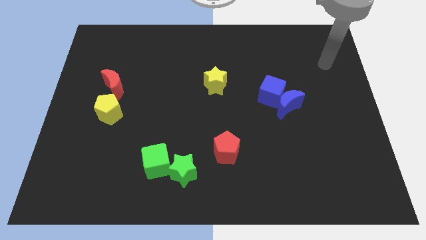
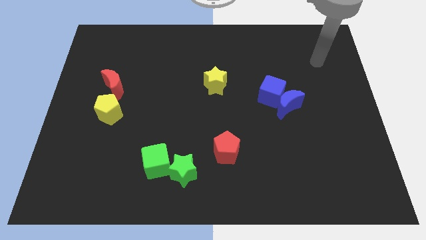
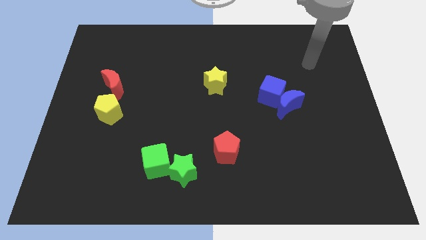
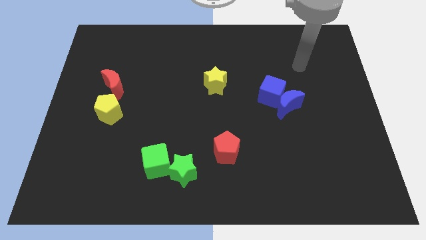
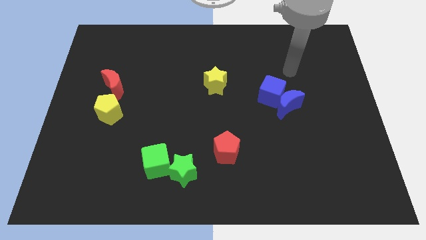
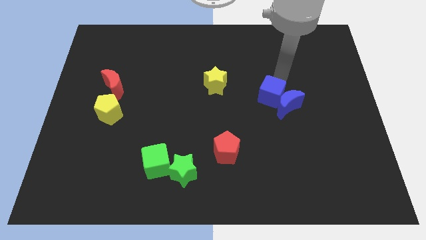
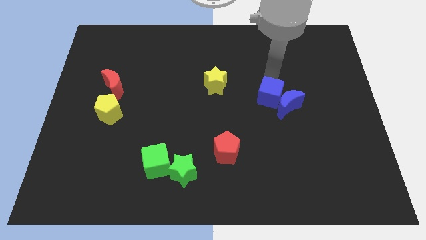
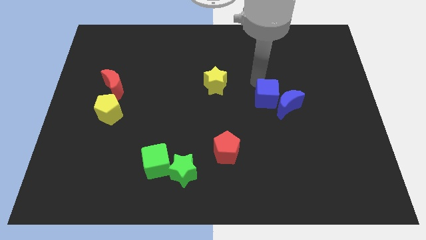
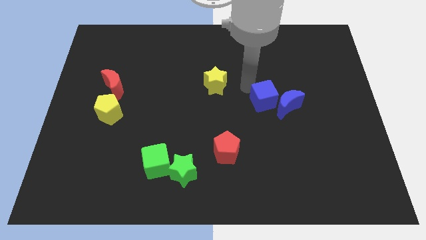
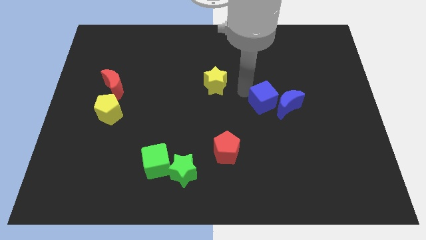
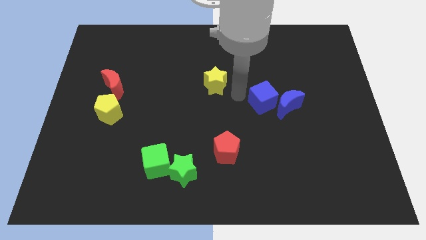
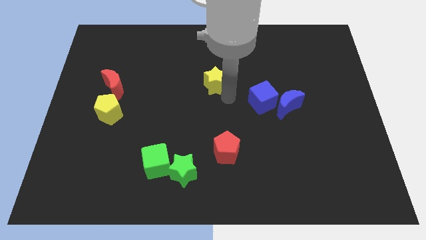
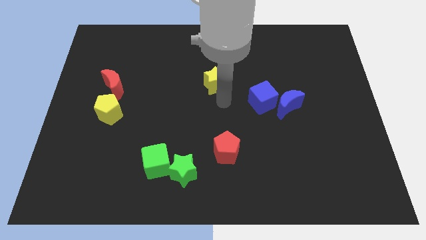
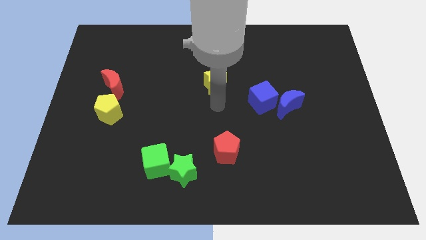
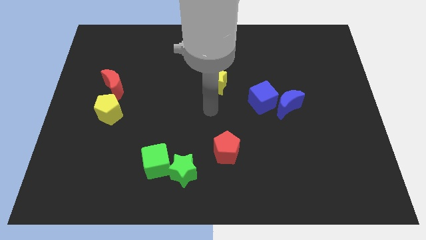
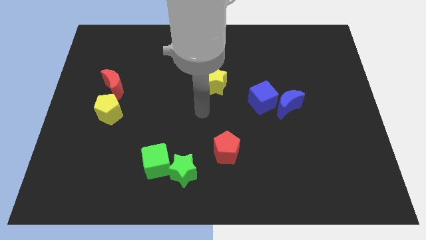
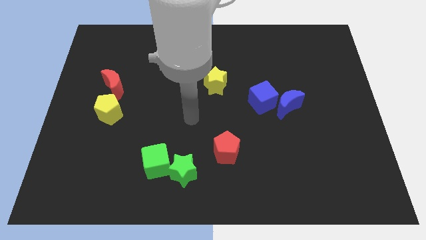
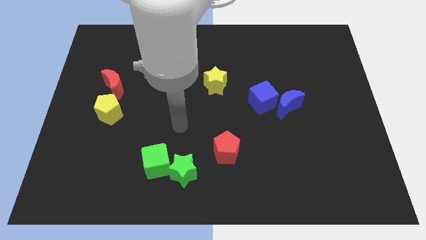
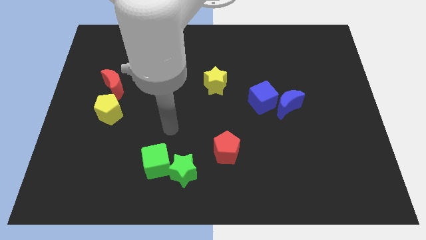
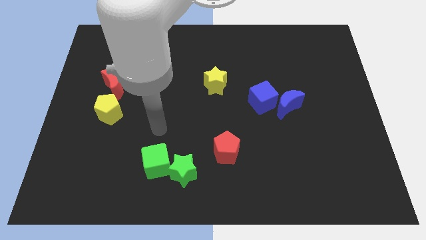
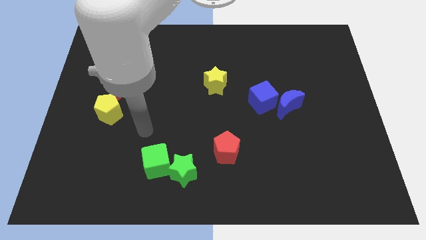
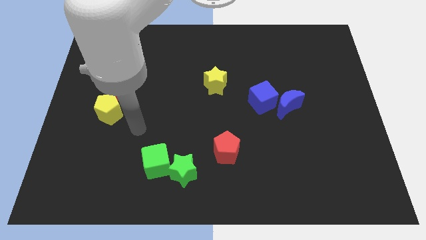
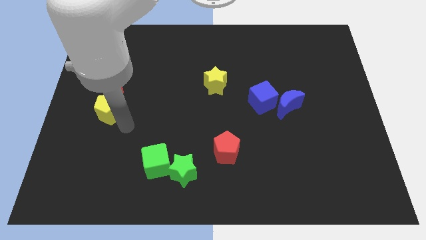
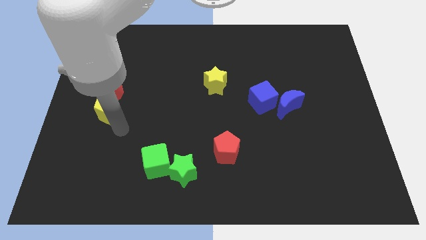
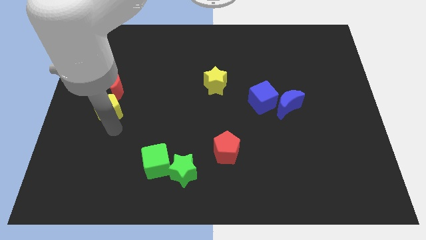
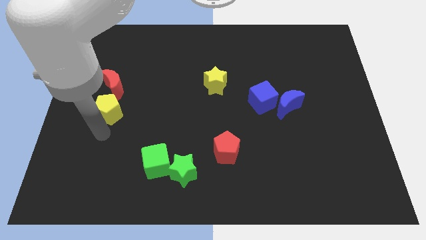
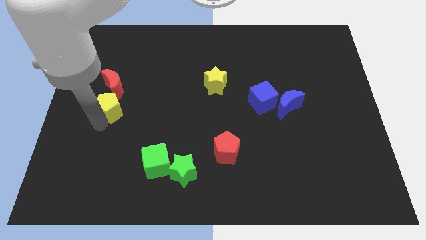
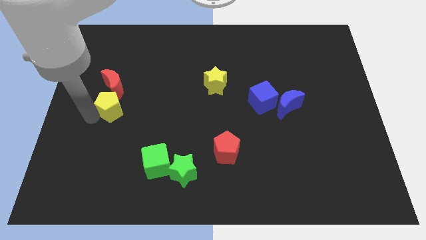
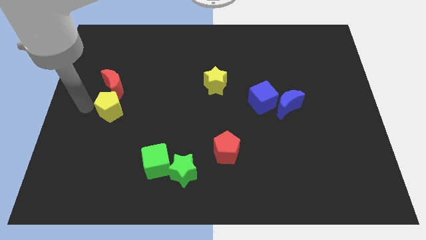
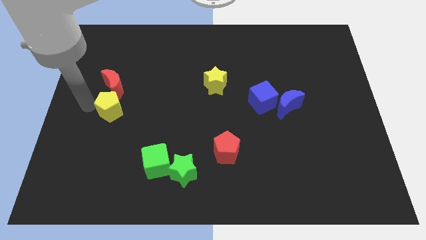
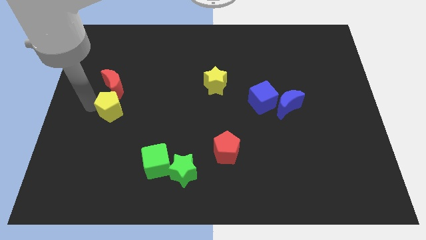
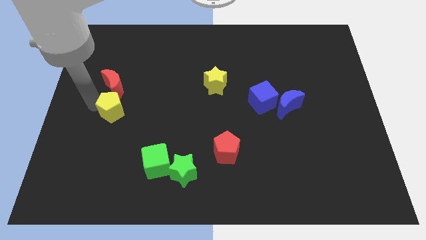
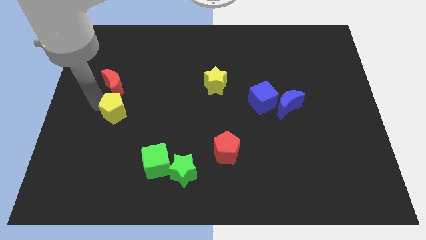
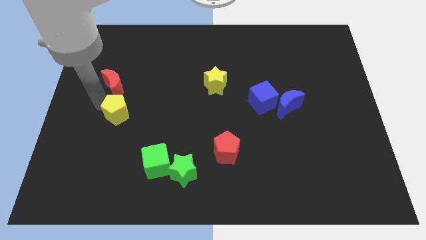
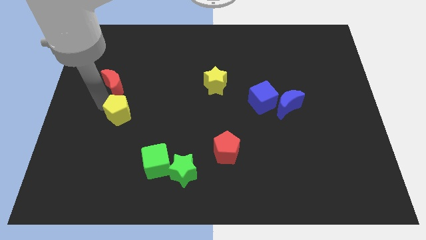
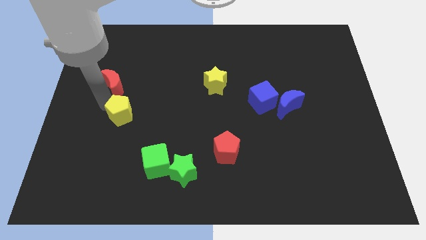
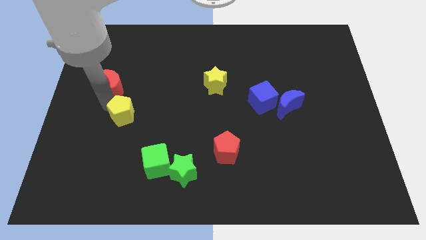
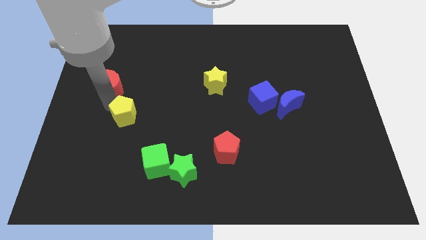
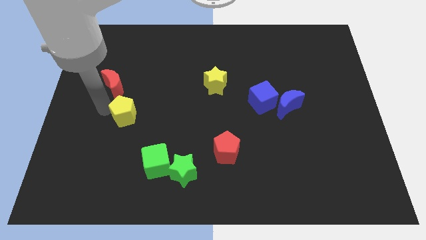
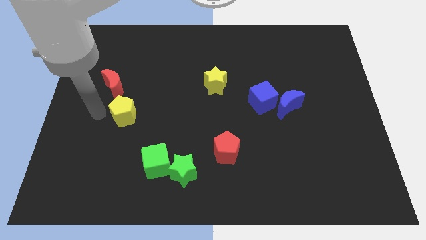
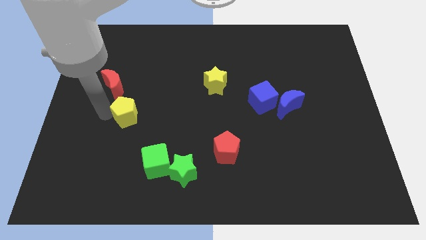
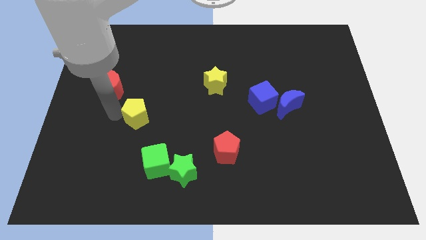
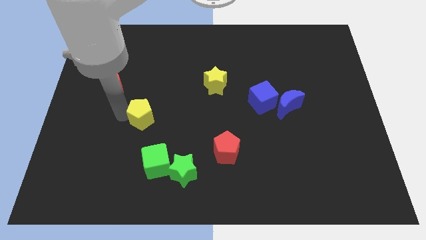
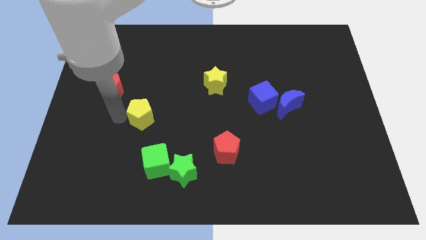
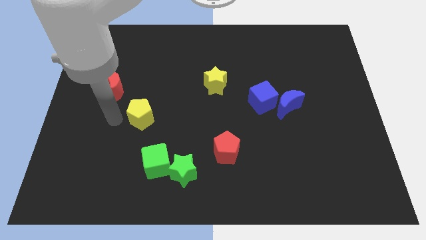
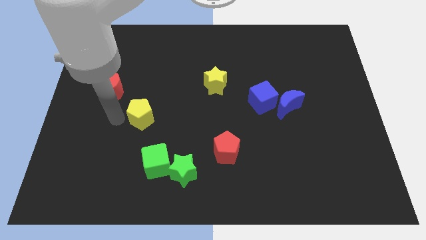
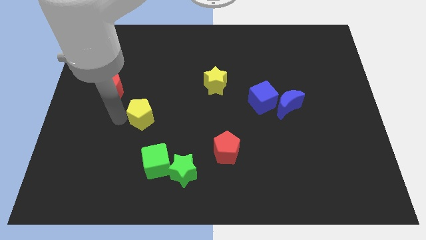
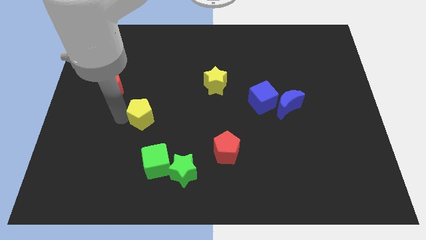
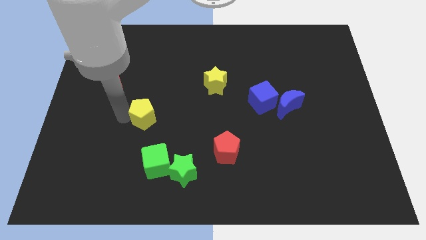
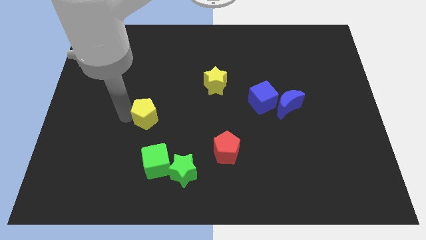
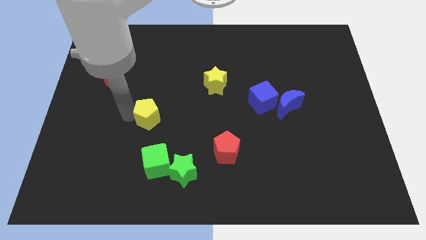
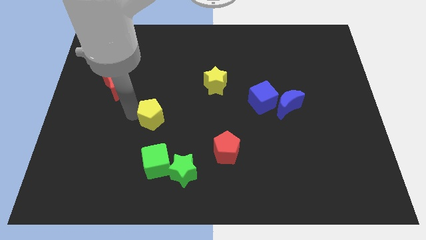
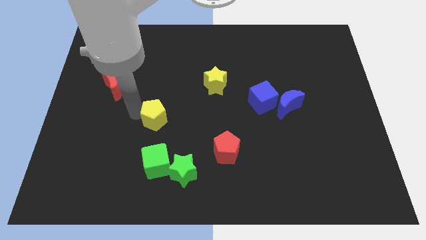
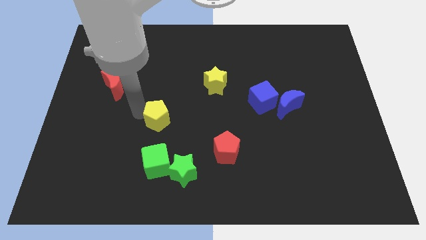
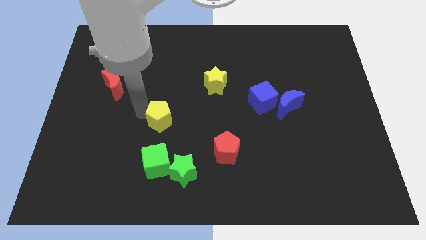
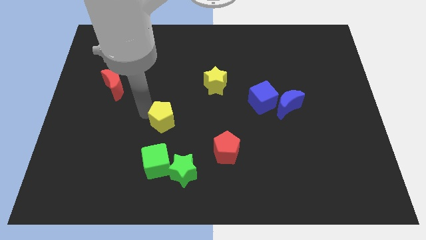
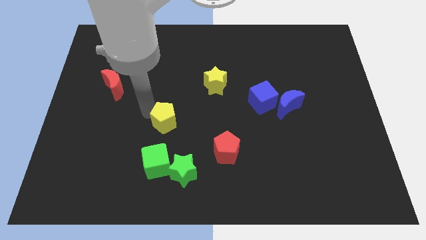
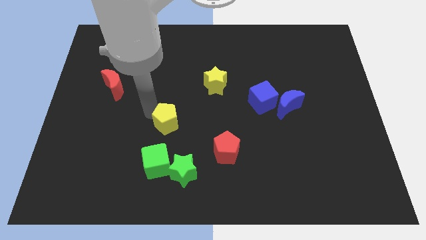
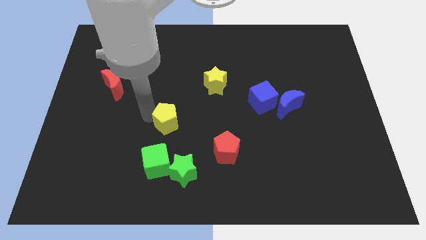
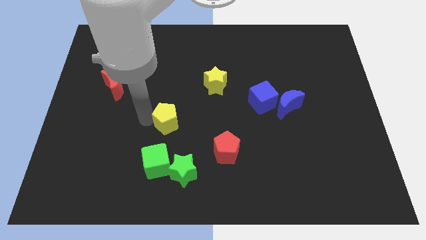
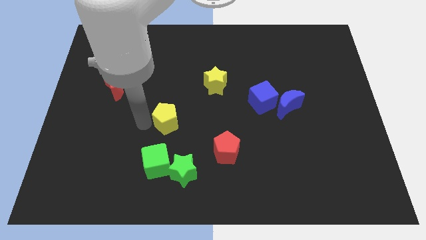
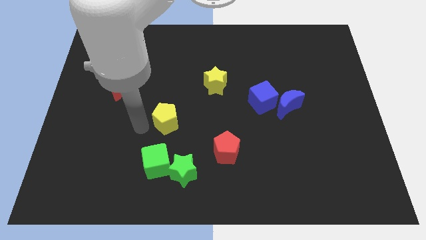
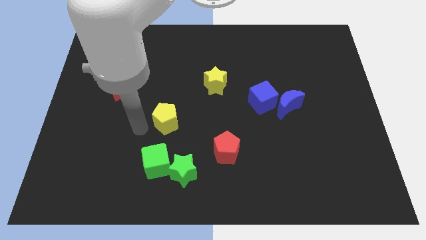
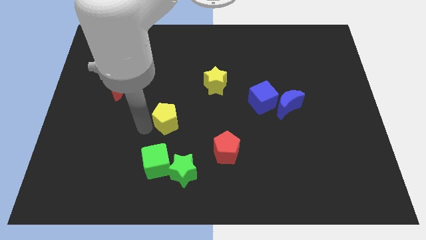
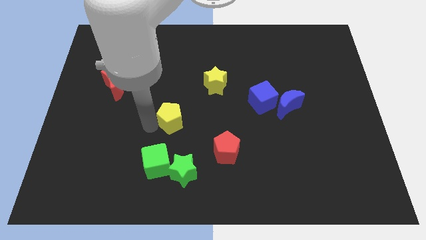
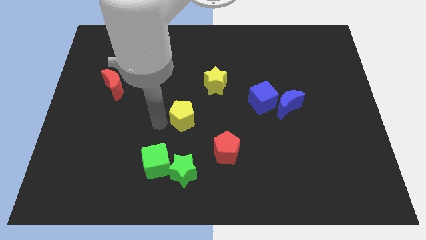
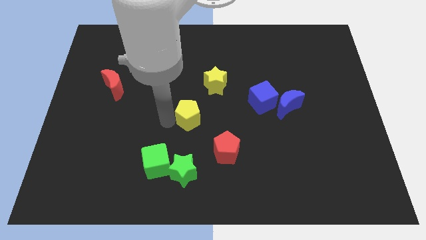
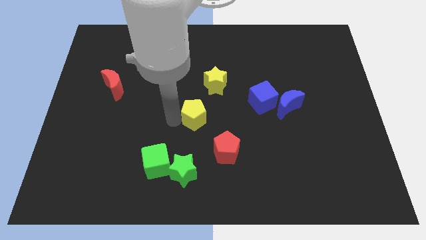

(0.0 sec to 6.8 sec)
move the yellow pentagon right

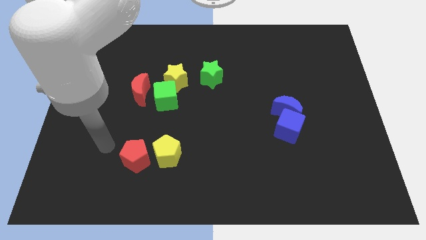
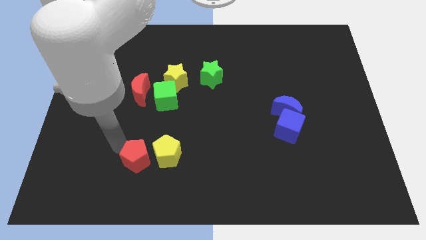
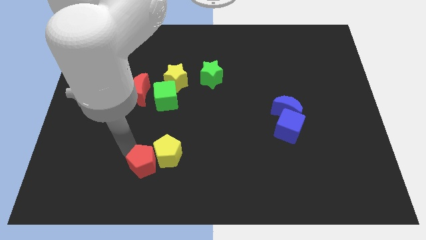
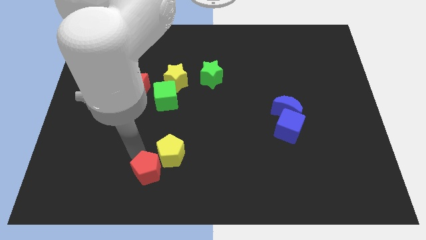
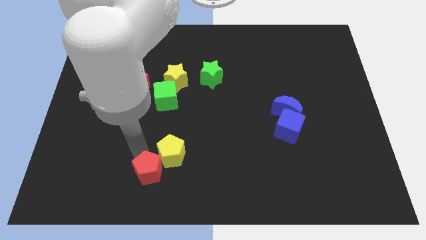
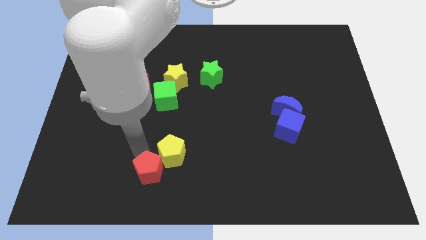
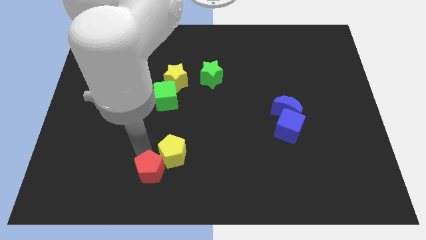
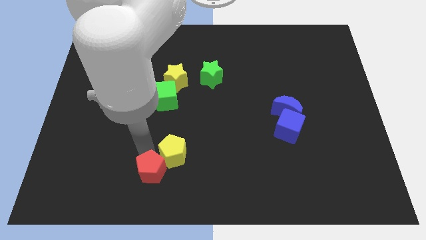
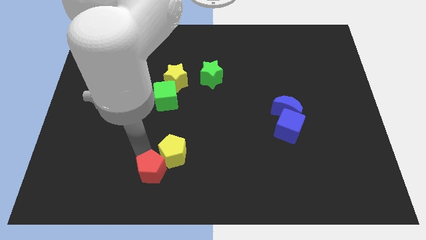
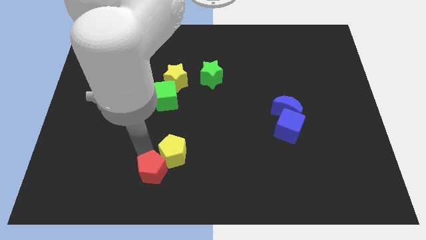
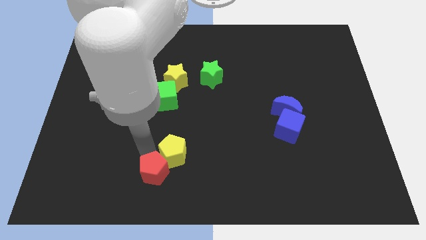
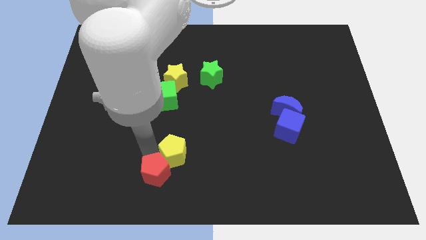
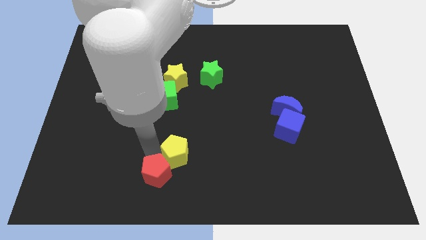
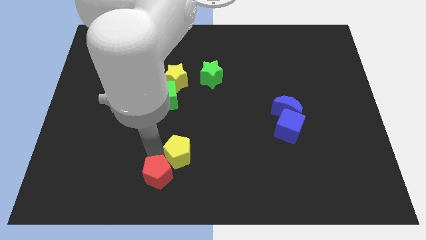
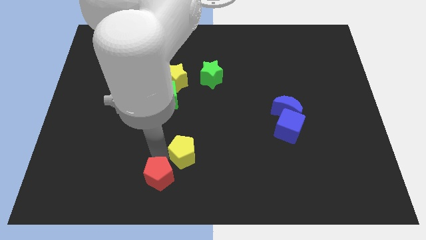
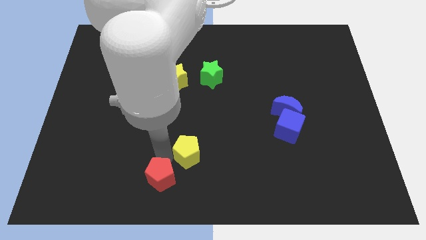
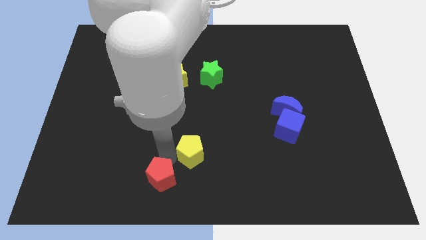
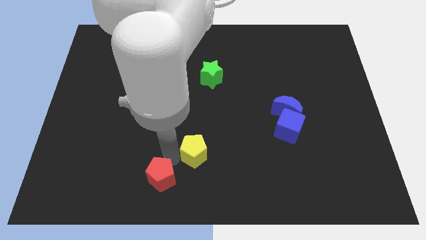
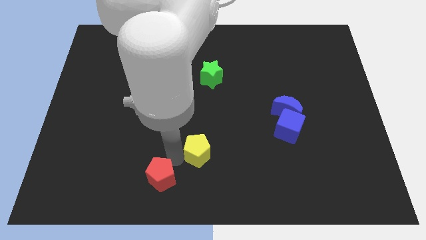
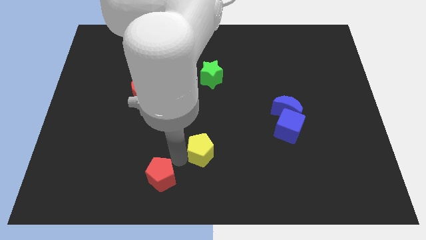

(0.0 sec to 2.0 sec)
slide the yellow pentagon right a bit
